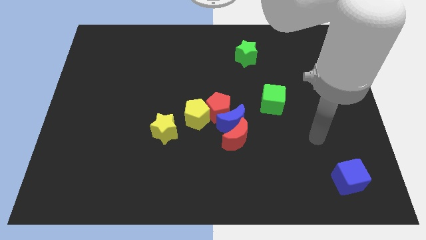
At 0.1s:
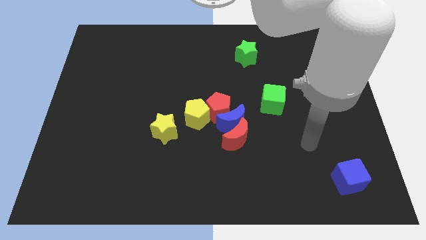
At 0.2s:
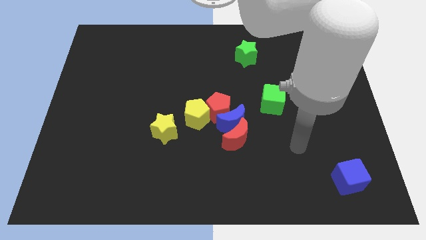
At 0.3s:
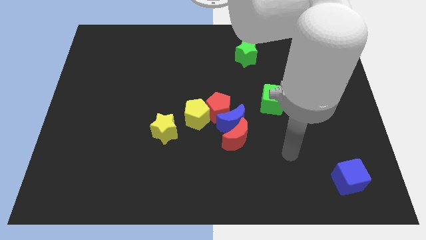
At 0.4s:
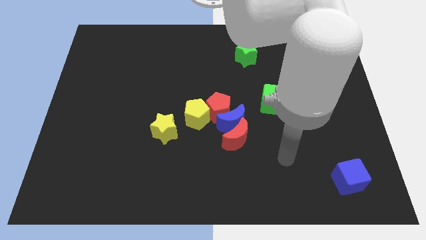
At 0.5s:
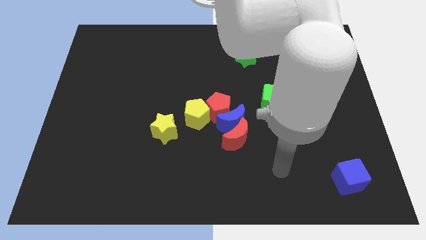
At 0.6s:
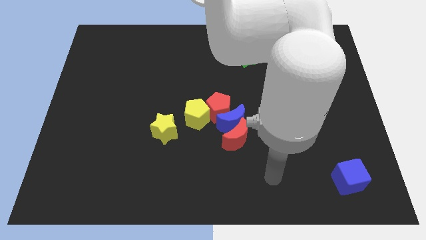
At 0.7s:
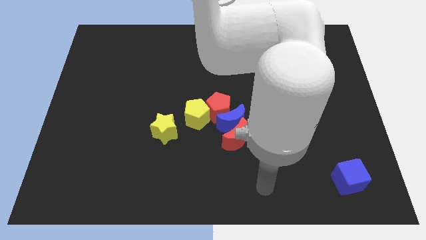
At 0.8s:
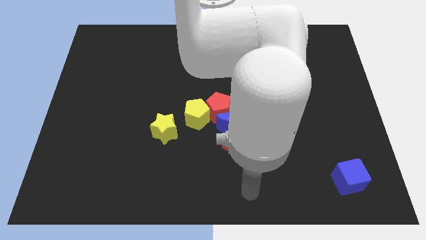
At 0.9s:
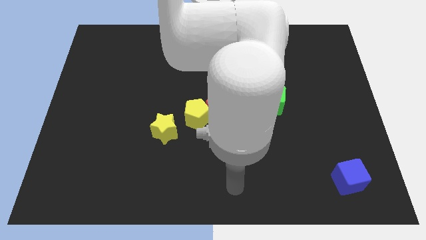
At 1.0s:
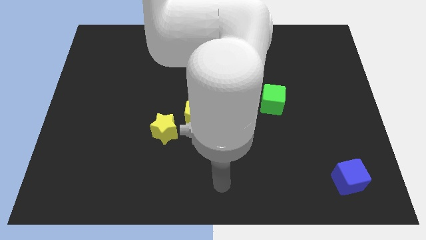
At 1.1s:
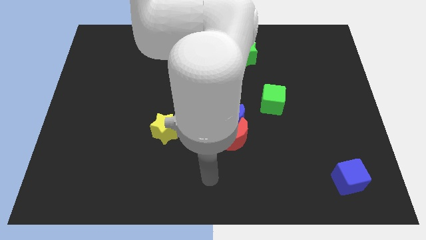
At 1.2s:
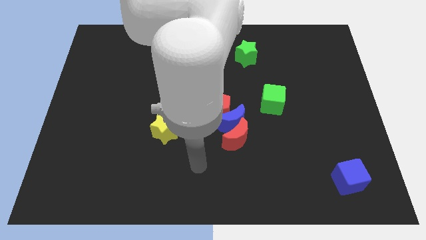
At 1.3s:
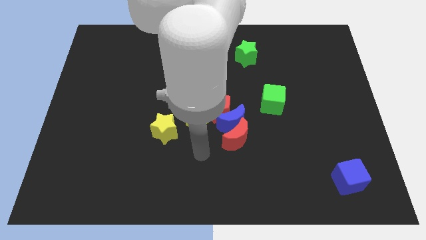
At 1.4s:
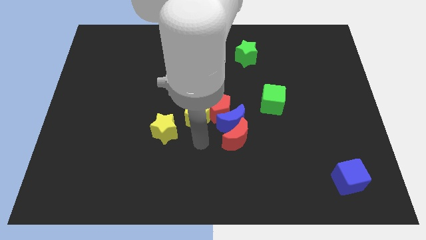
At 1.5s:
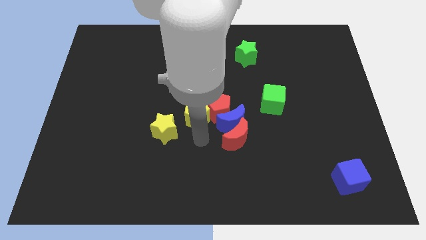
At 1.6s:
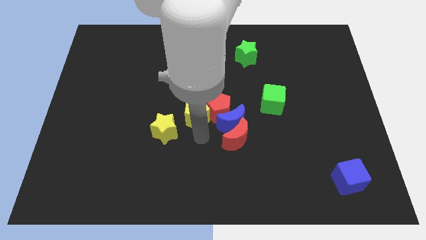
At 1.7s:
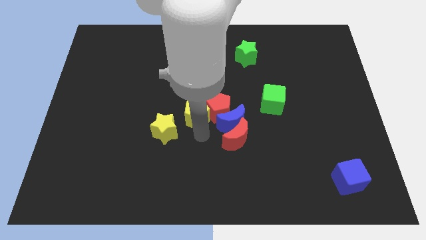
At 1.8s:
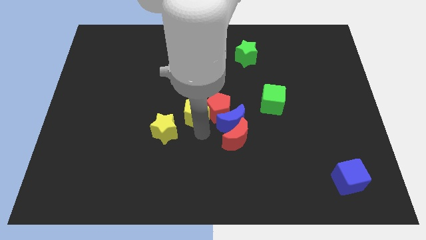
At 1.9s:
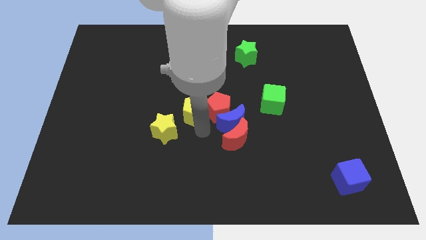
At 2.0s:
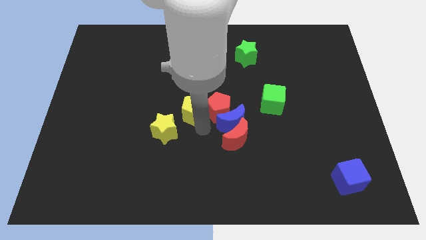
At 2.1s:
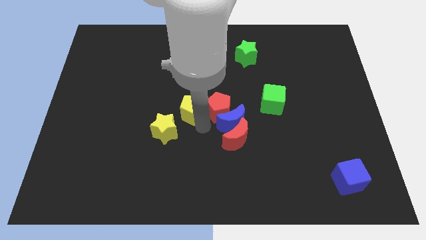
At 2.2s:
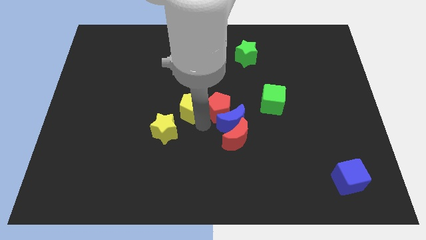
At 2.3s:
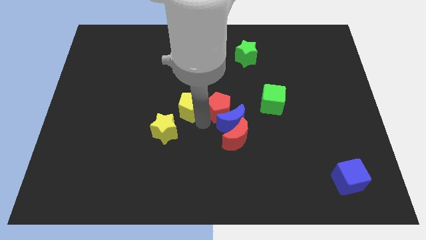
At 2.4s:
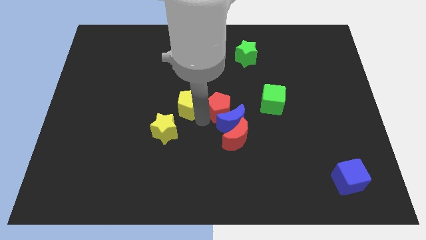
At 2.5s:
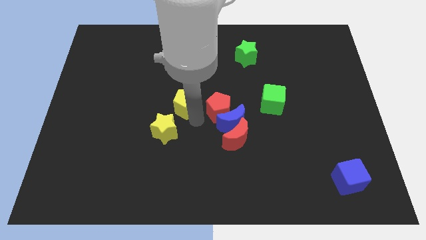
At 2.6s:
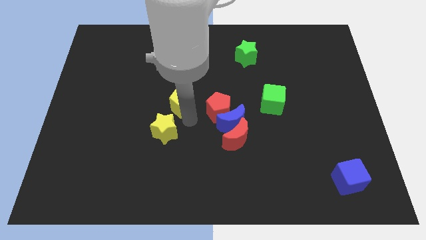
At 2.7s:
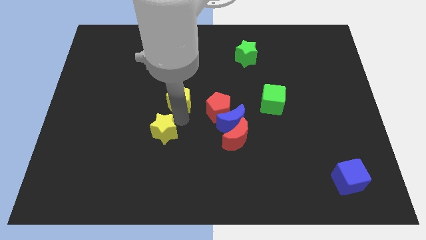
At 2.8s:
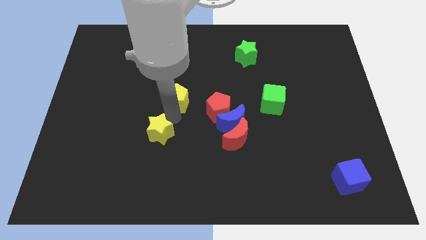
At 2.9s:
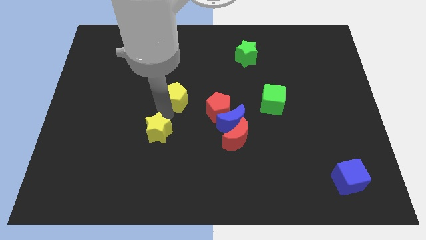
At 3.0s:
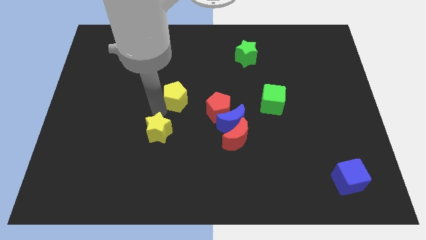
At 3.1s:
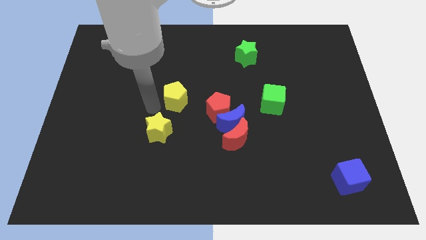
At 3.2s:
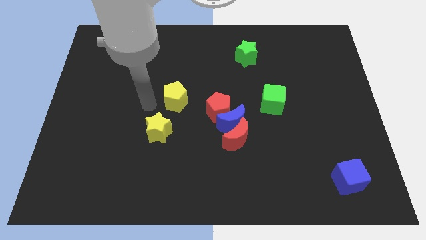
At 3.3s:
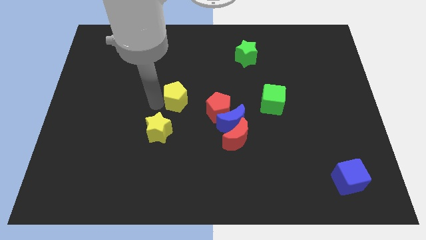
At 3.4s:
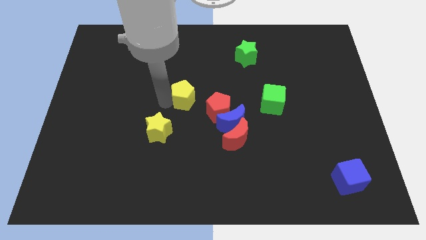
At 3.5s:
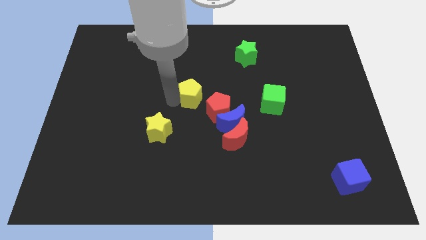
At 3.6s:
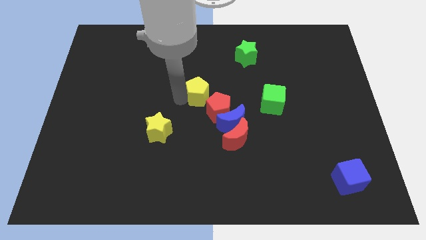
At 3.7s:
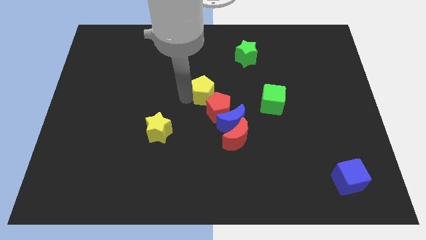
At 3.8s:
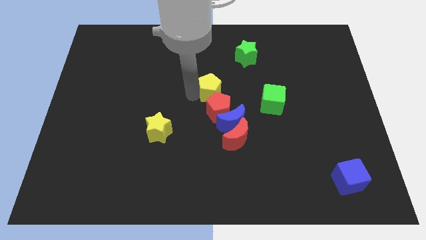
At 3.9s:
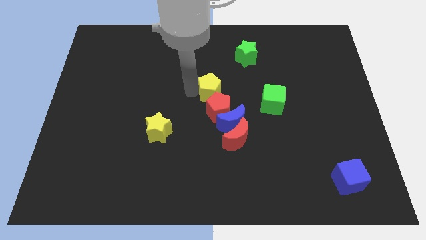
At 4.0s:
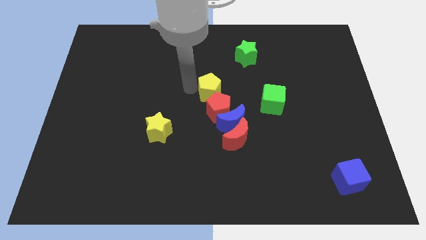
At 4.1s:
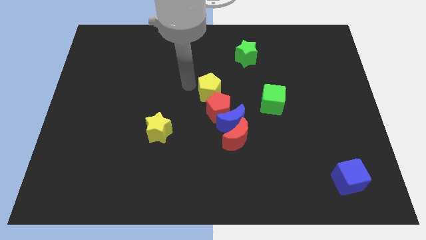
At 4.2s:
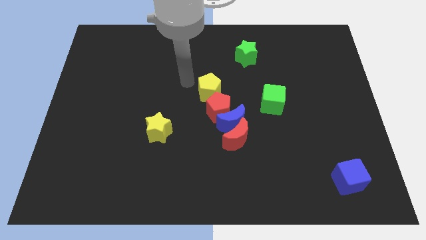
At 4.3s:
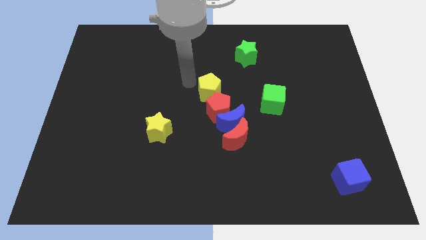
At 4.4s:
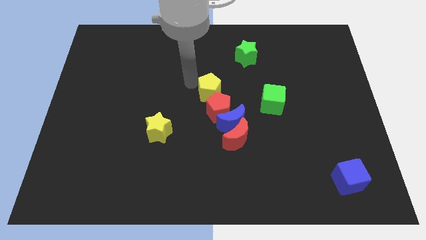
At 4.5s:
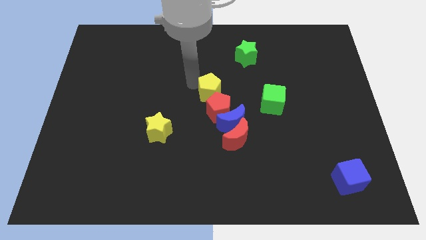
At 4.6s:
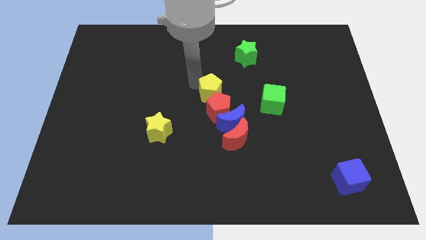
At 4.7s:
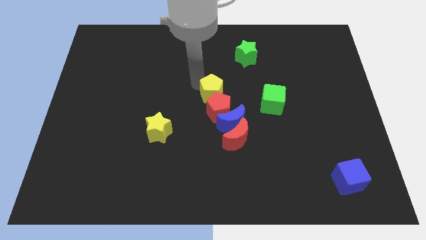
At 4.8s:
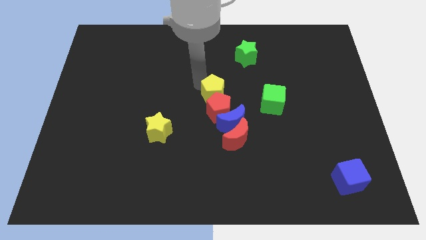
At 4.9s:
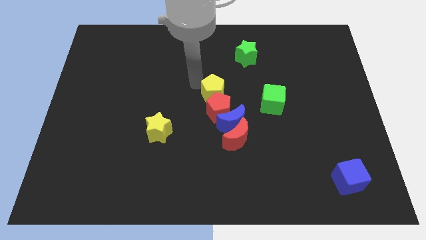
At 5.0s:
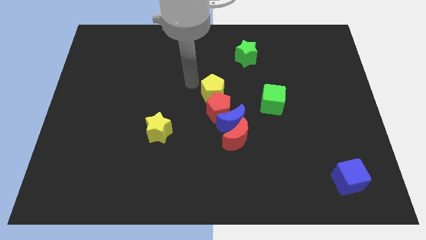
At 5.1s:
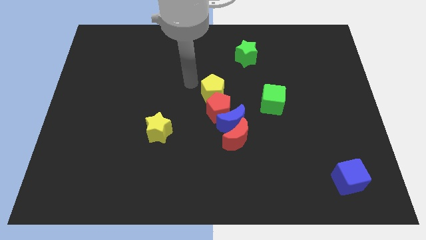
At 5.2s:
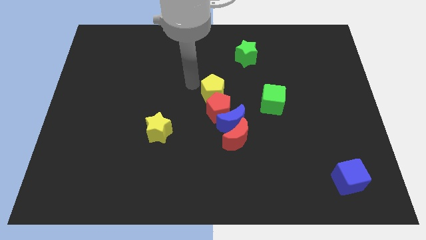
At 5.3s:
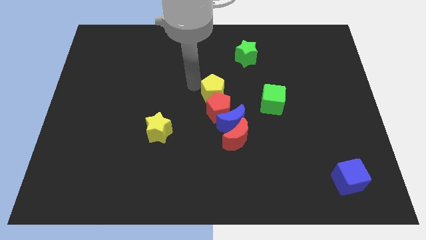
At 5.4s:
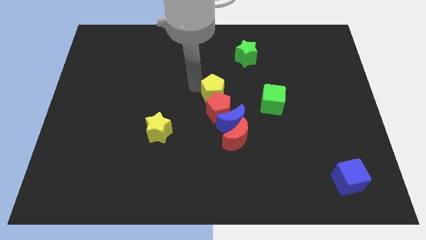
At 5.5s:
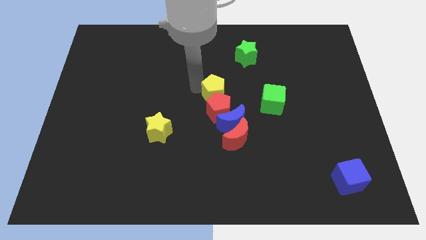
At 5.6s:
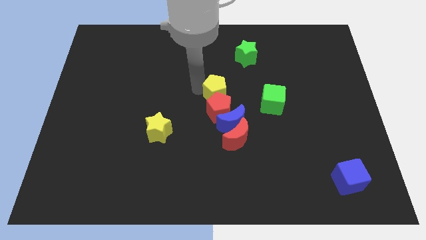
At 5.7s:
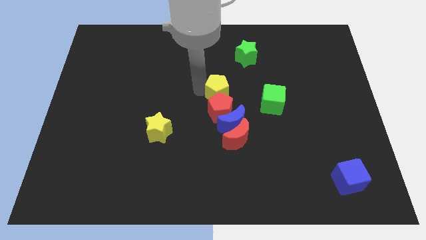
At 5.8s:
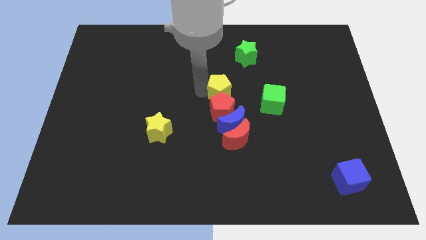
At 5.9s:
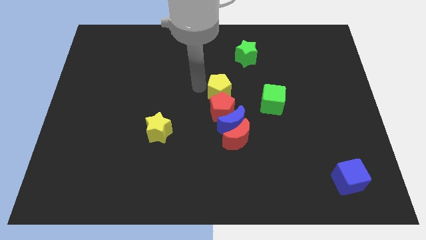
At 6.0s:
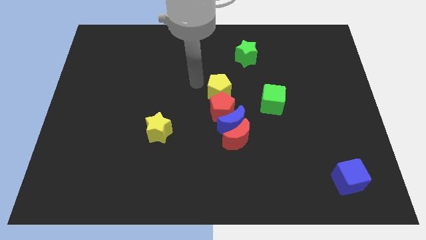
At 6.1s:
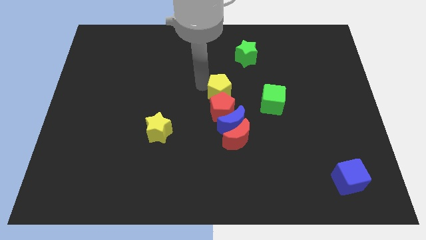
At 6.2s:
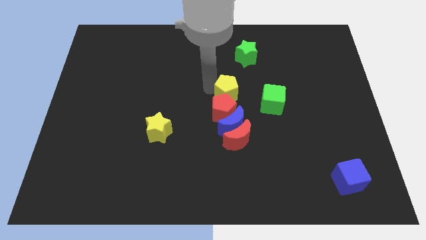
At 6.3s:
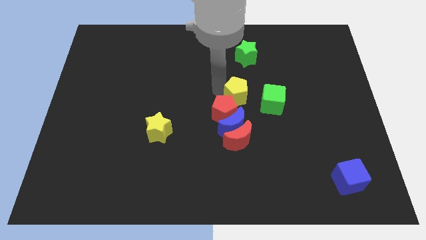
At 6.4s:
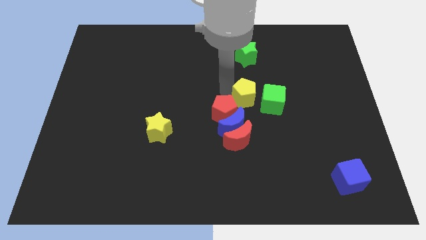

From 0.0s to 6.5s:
move the yellow pentagon to the top right side of the blue moon
